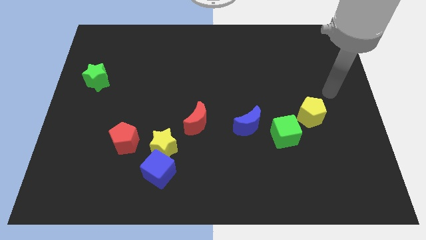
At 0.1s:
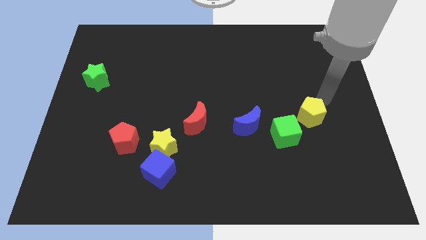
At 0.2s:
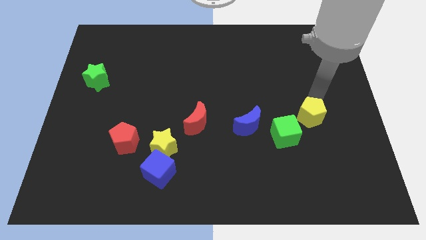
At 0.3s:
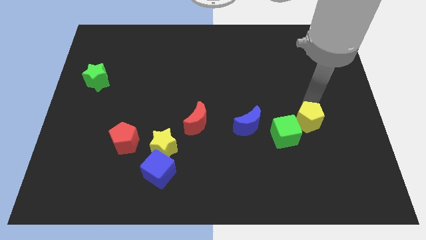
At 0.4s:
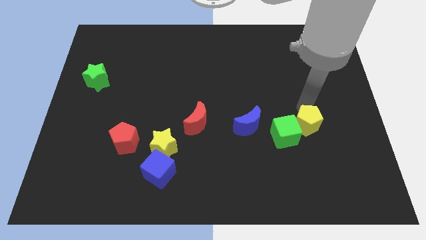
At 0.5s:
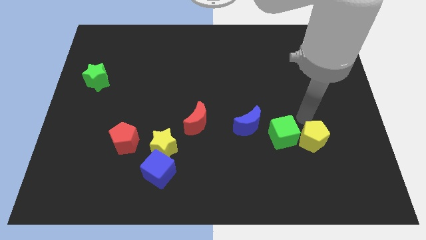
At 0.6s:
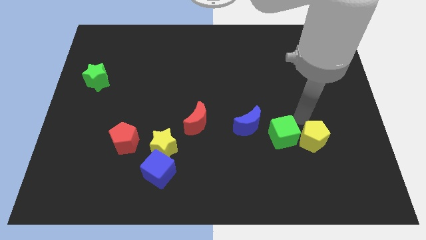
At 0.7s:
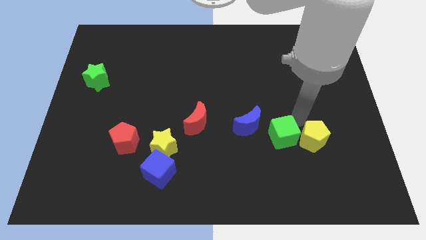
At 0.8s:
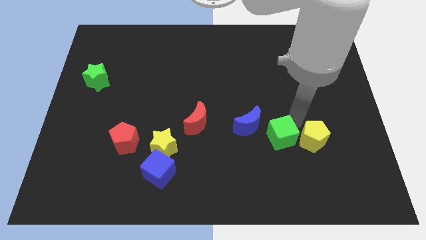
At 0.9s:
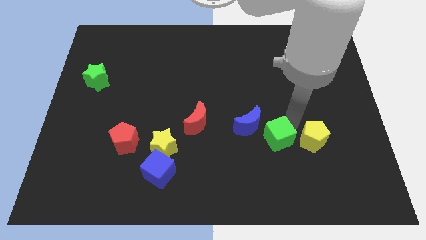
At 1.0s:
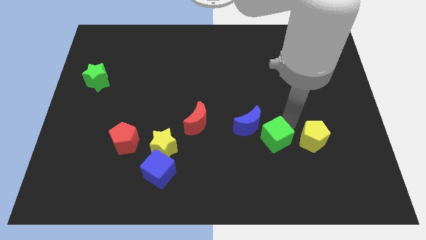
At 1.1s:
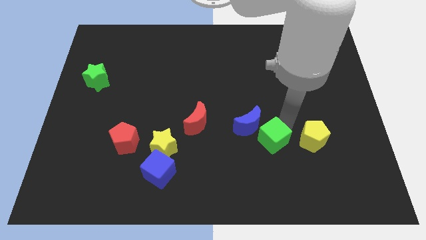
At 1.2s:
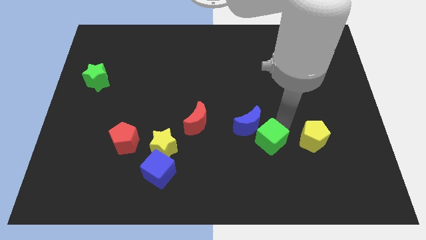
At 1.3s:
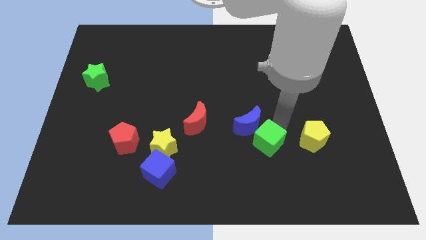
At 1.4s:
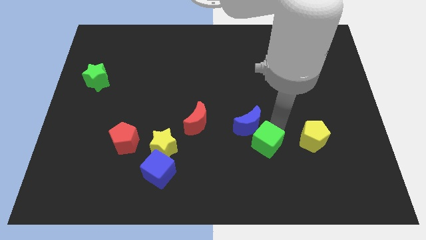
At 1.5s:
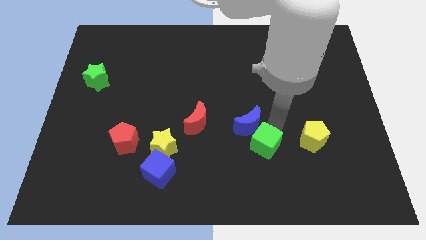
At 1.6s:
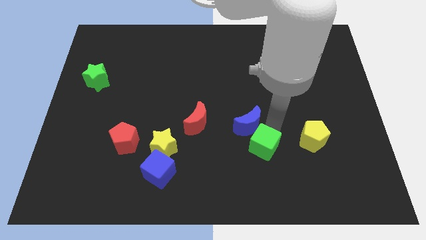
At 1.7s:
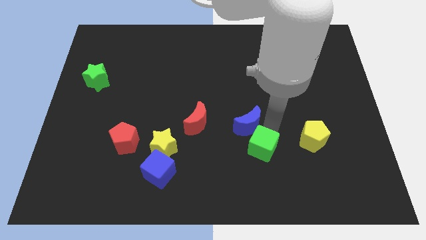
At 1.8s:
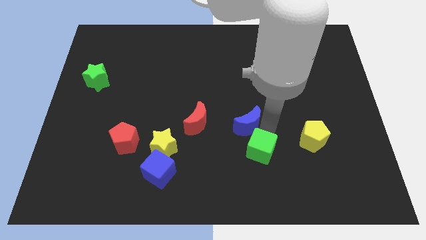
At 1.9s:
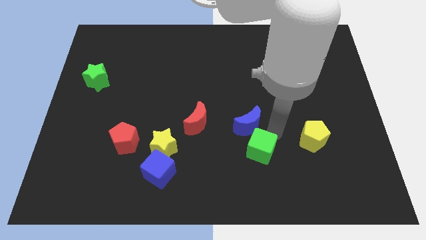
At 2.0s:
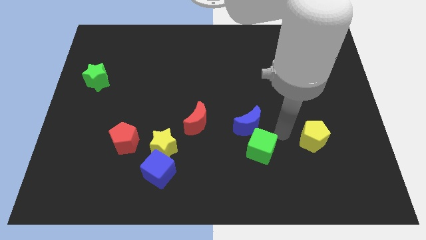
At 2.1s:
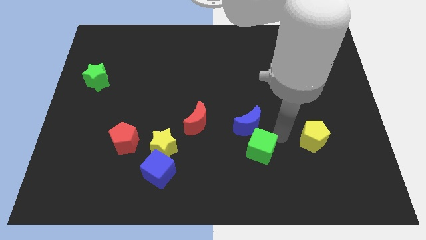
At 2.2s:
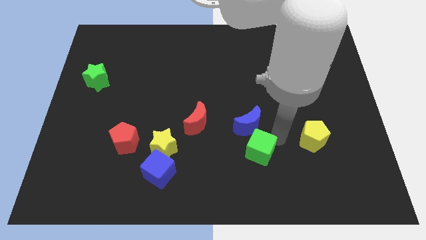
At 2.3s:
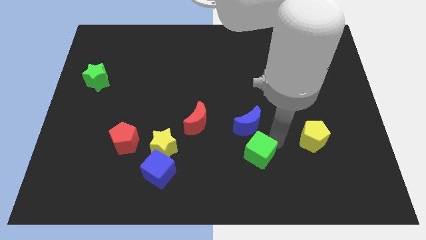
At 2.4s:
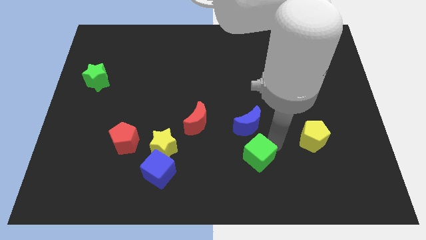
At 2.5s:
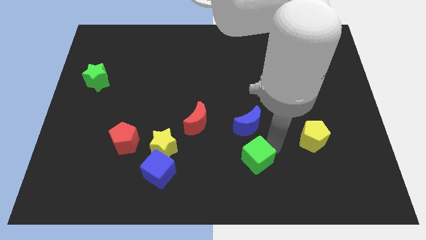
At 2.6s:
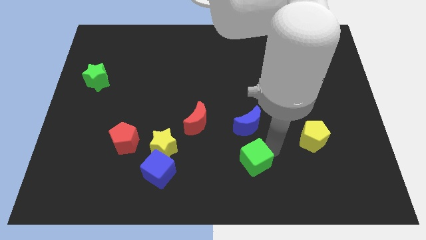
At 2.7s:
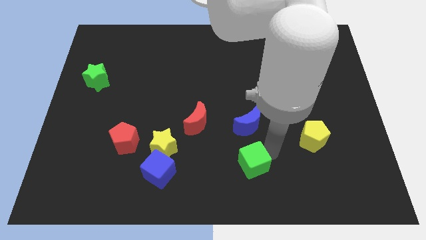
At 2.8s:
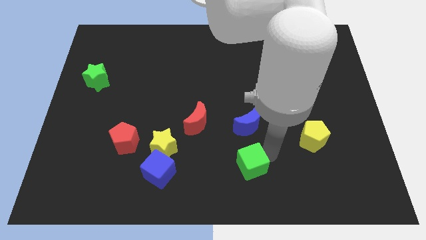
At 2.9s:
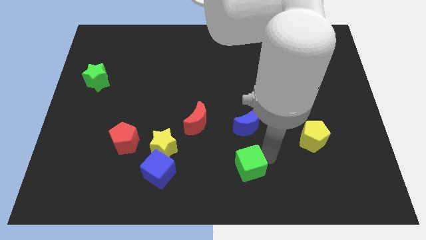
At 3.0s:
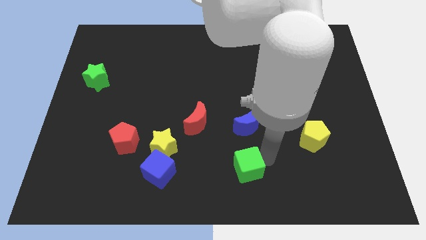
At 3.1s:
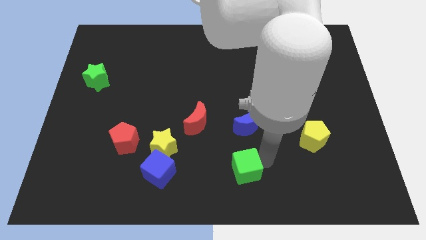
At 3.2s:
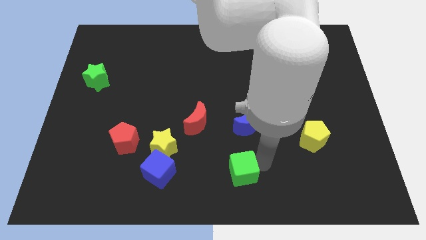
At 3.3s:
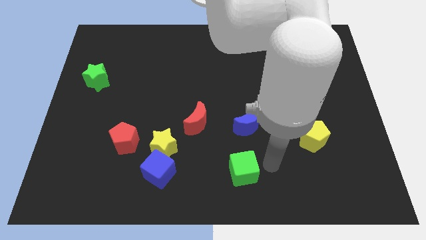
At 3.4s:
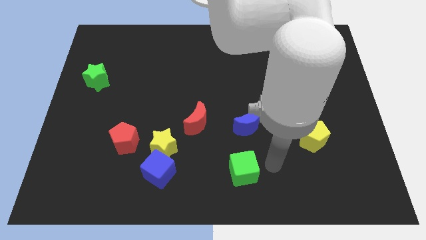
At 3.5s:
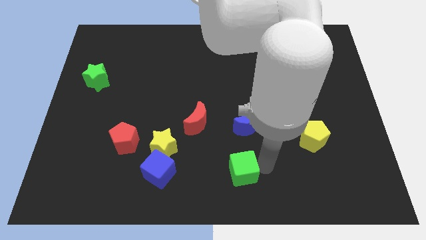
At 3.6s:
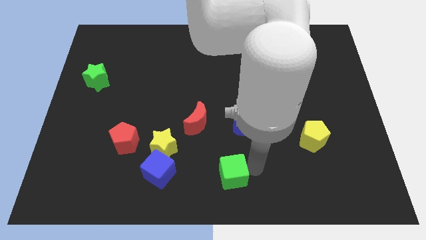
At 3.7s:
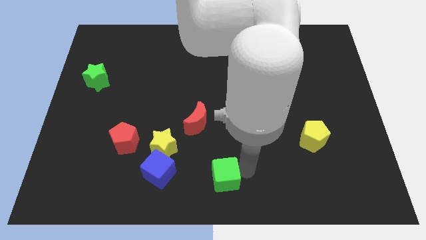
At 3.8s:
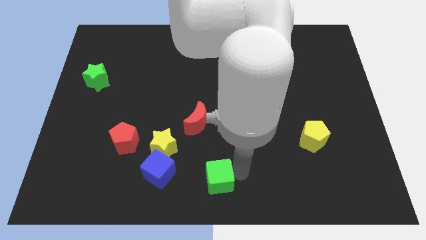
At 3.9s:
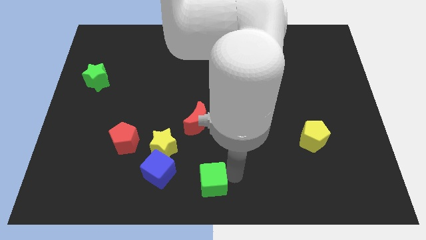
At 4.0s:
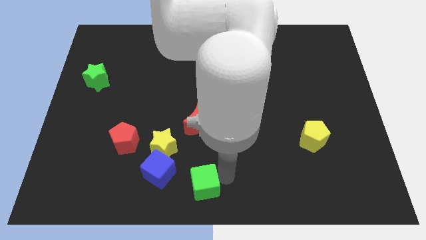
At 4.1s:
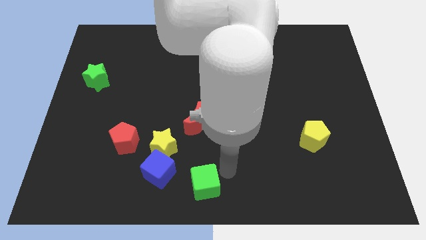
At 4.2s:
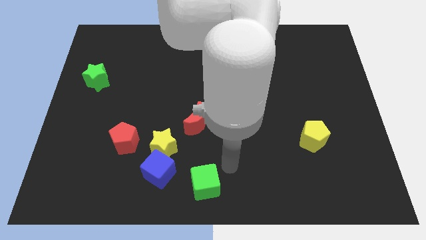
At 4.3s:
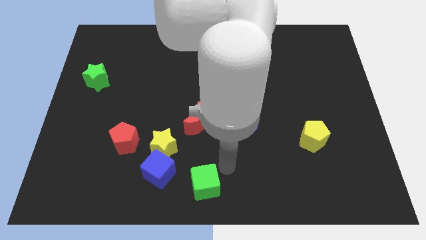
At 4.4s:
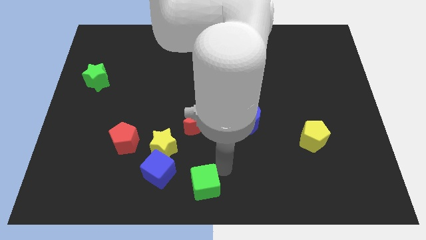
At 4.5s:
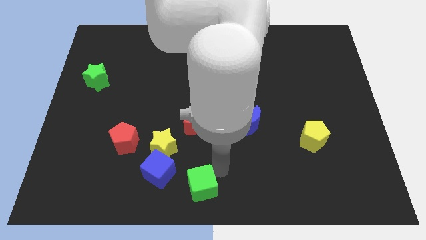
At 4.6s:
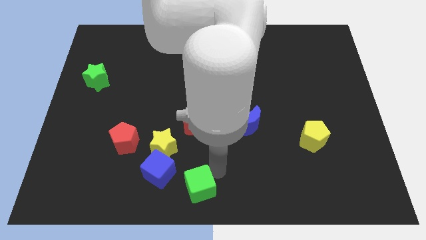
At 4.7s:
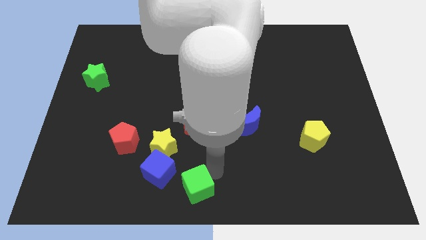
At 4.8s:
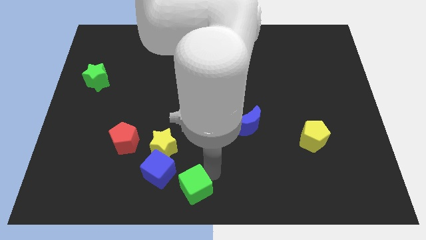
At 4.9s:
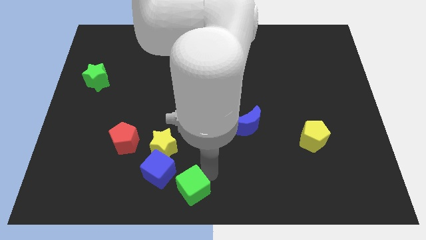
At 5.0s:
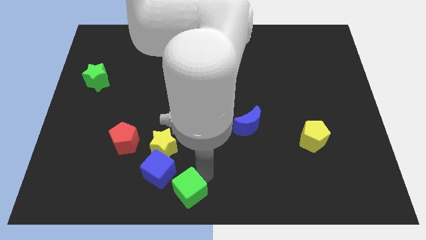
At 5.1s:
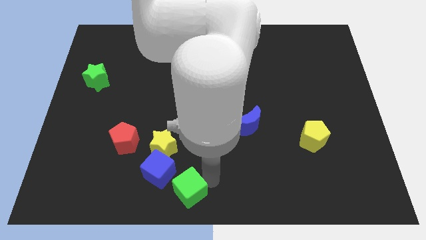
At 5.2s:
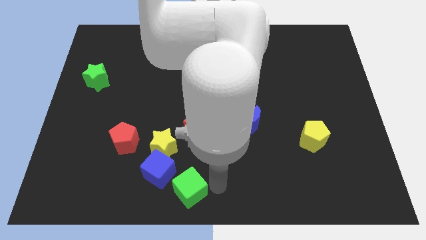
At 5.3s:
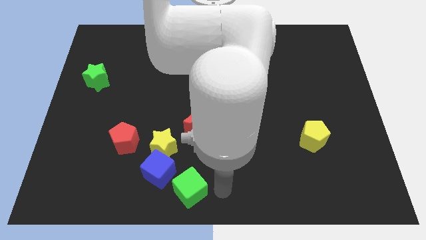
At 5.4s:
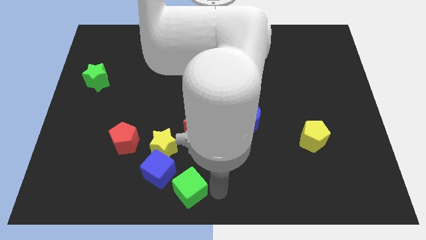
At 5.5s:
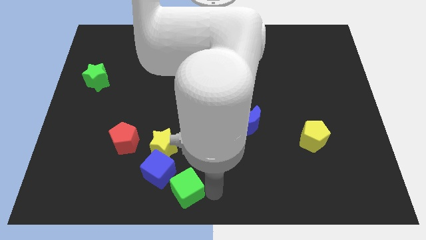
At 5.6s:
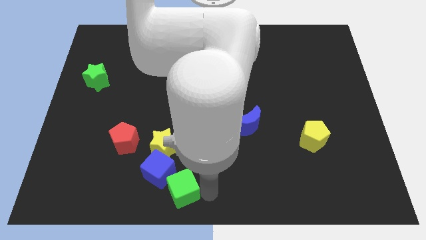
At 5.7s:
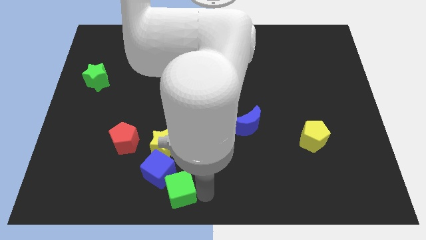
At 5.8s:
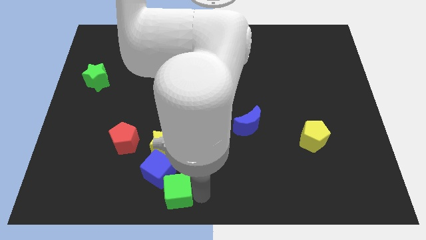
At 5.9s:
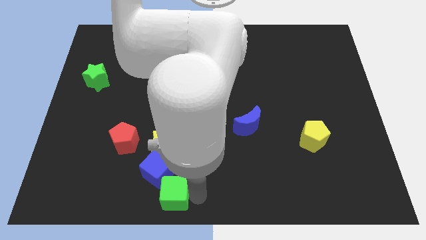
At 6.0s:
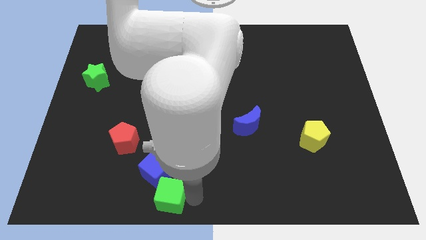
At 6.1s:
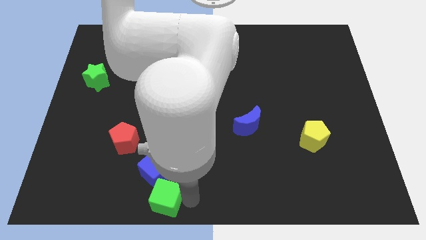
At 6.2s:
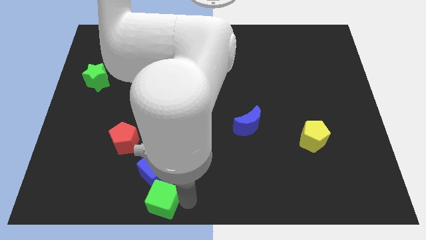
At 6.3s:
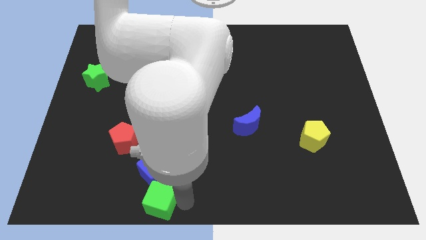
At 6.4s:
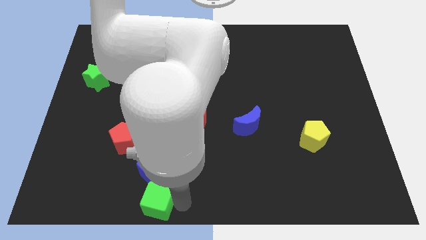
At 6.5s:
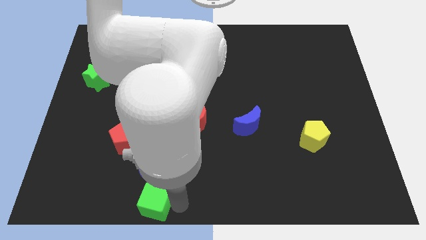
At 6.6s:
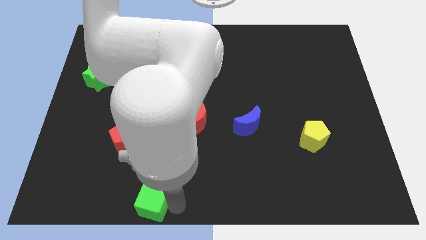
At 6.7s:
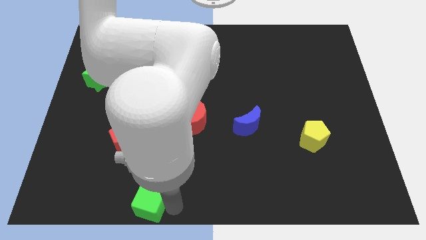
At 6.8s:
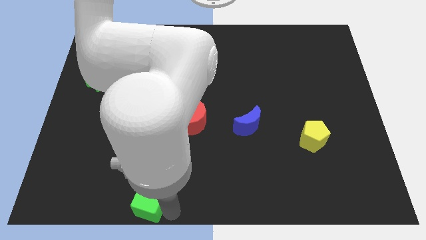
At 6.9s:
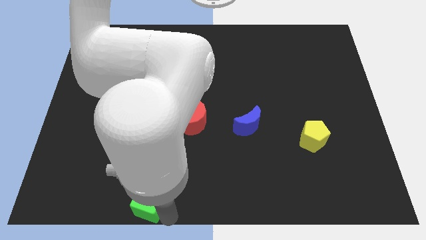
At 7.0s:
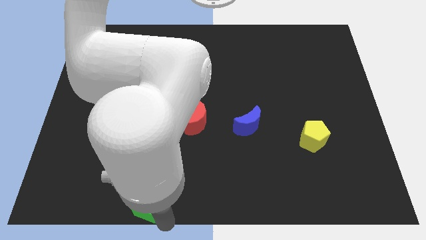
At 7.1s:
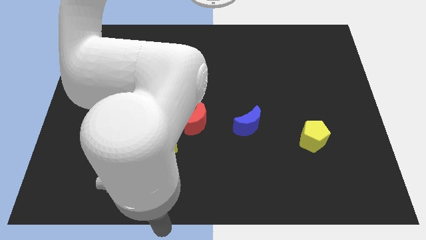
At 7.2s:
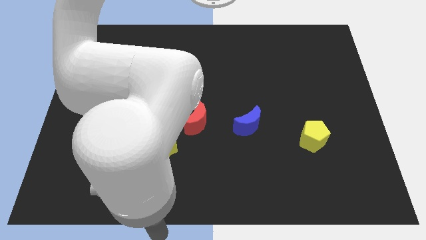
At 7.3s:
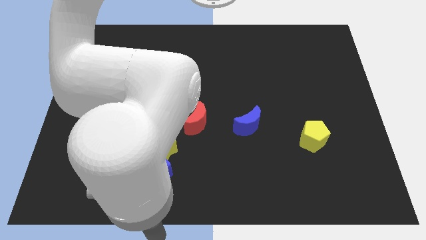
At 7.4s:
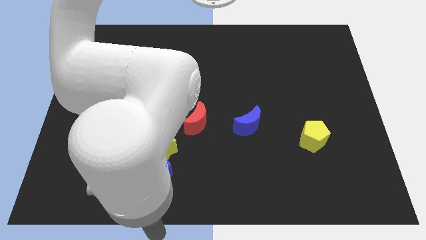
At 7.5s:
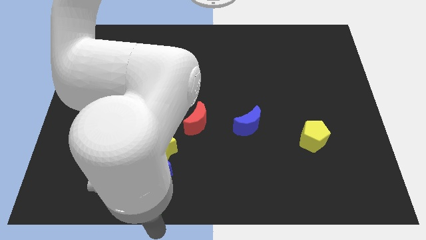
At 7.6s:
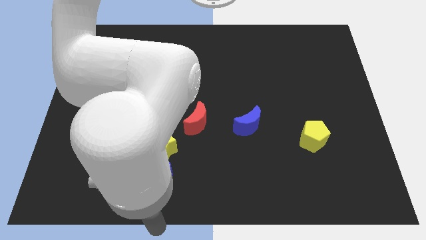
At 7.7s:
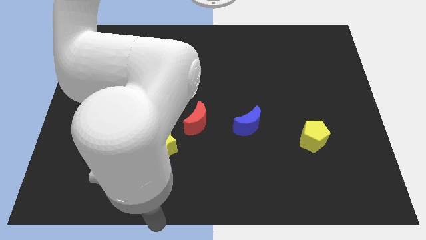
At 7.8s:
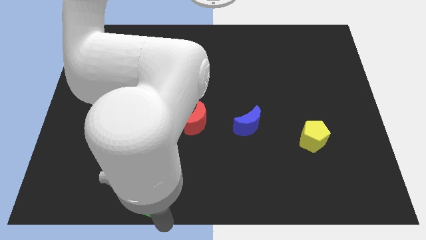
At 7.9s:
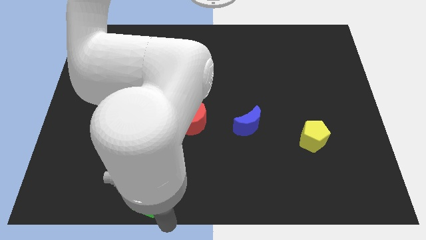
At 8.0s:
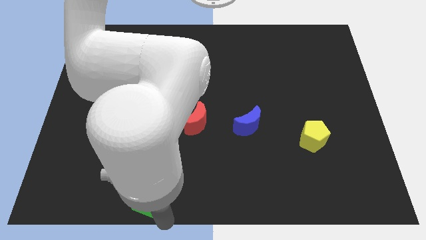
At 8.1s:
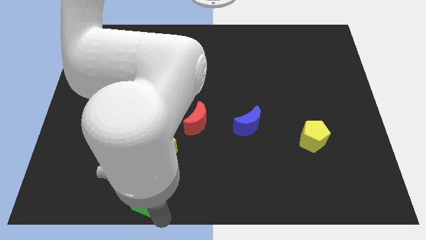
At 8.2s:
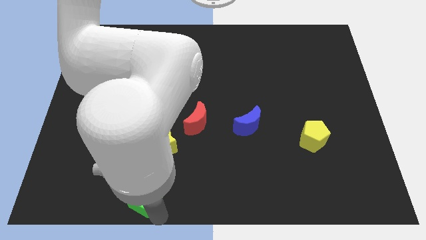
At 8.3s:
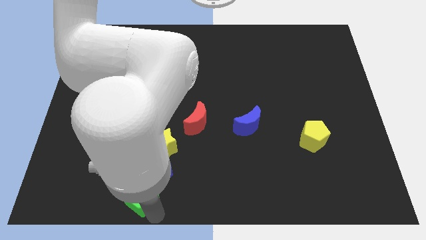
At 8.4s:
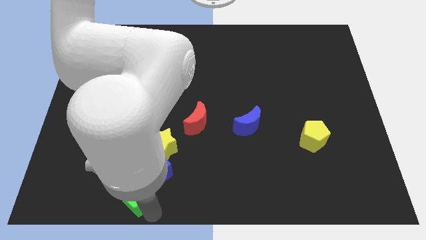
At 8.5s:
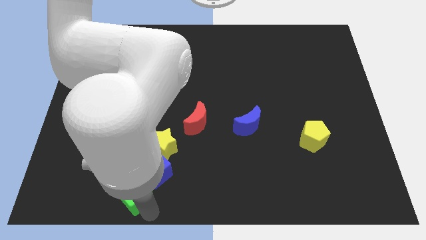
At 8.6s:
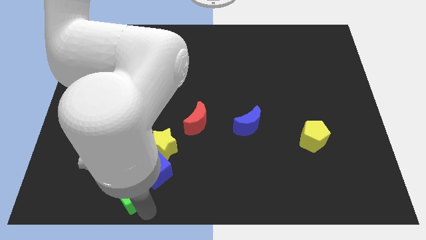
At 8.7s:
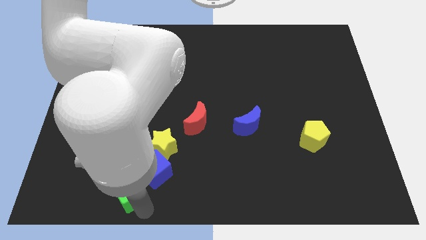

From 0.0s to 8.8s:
put the green cube to the left side of the blue cube
